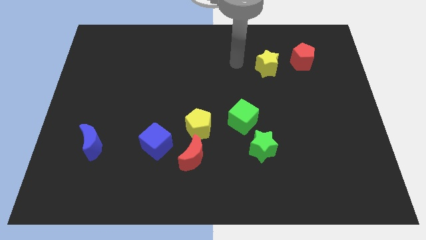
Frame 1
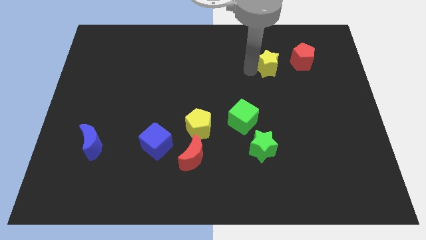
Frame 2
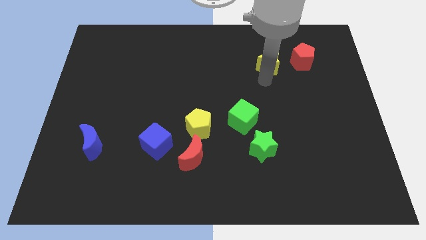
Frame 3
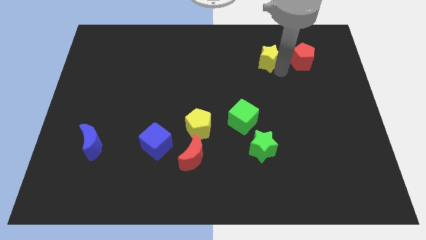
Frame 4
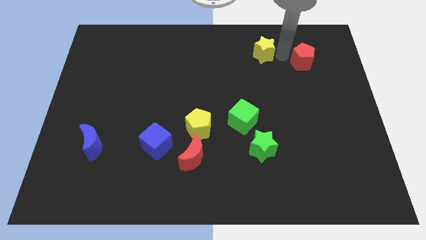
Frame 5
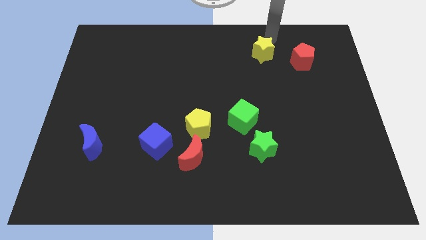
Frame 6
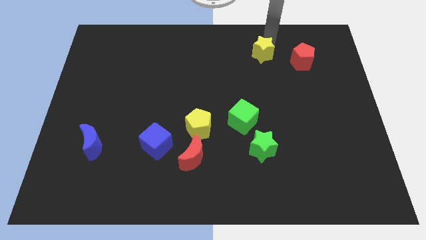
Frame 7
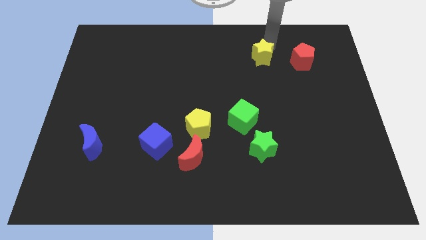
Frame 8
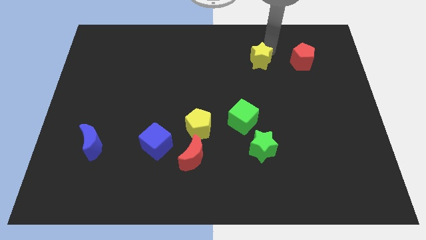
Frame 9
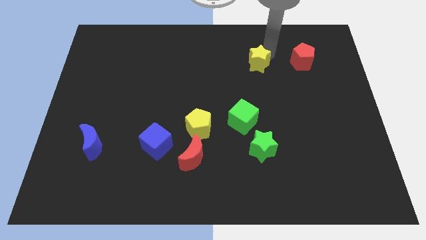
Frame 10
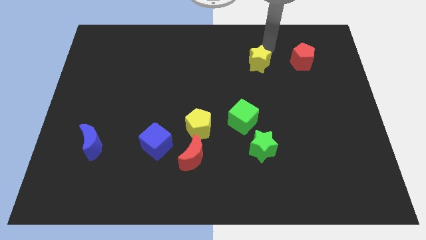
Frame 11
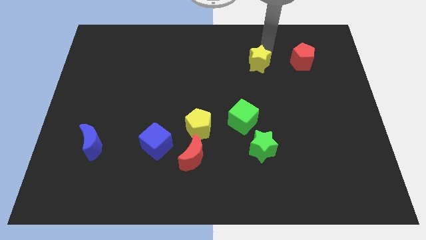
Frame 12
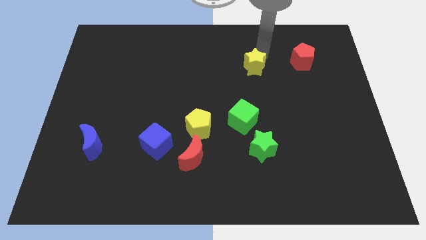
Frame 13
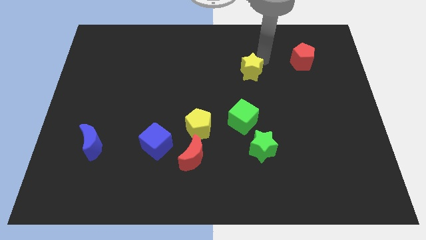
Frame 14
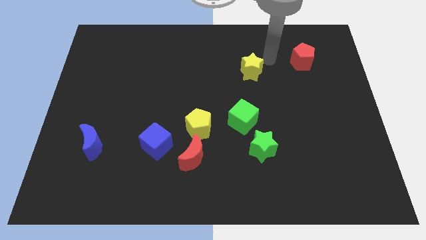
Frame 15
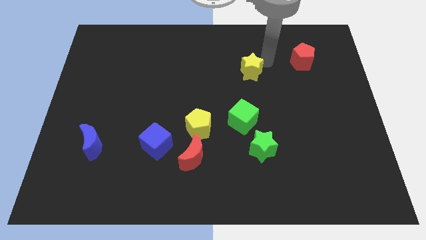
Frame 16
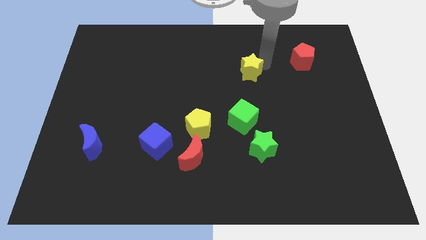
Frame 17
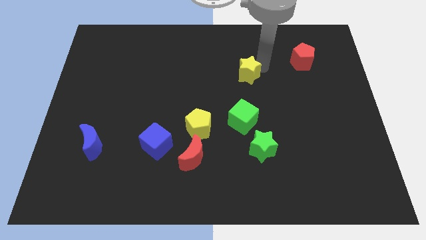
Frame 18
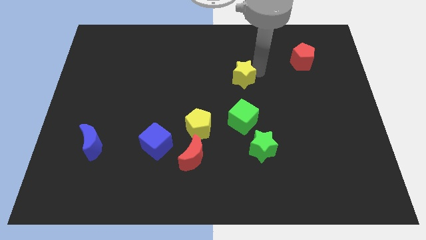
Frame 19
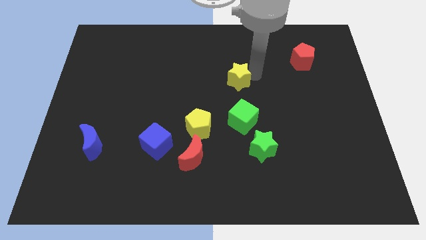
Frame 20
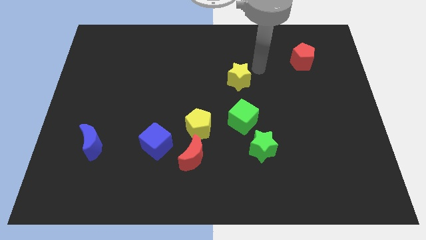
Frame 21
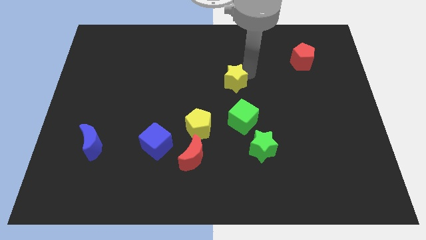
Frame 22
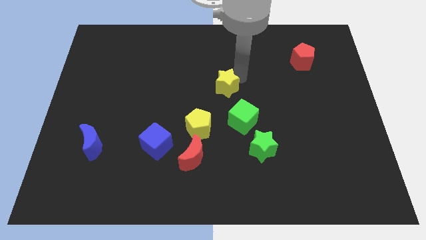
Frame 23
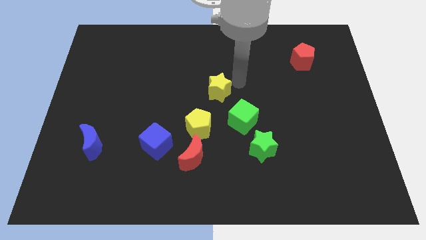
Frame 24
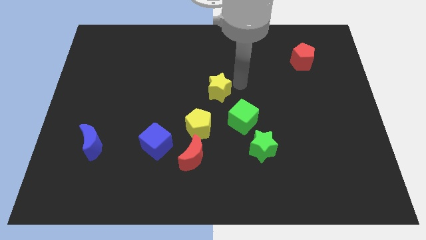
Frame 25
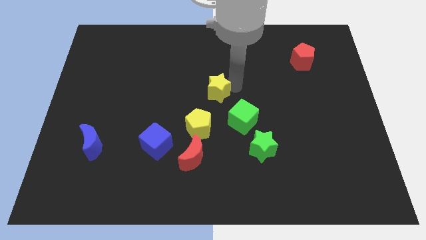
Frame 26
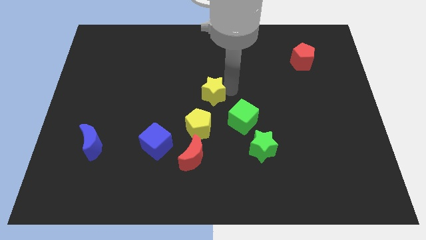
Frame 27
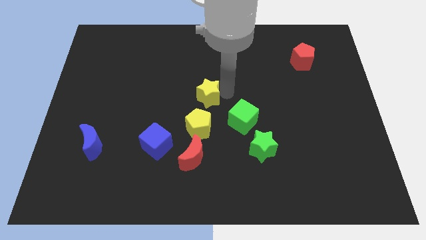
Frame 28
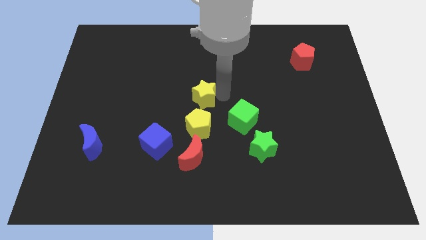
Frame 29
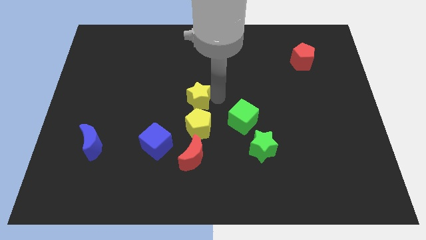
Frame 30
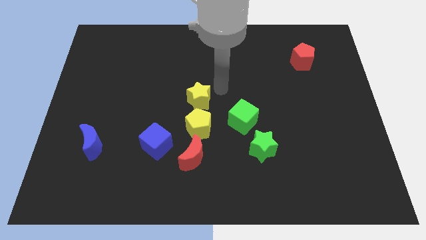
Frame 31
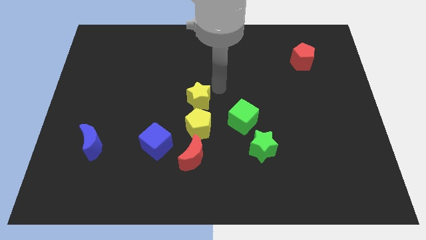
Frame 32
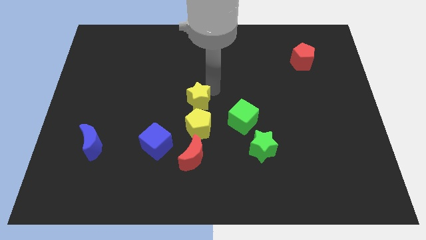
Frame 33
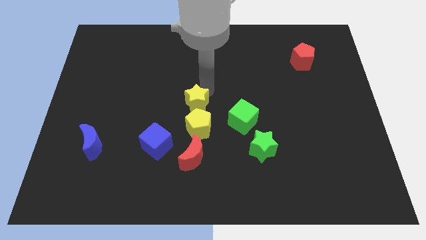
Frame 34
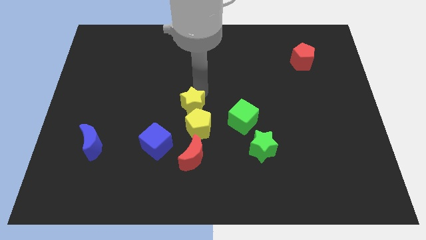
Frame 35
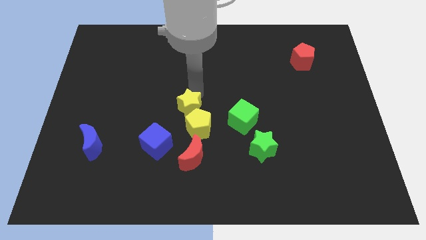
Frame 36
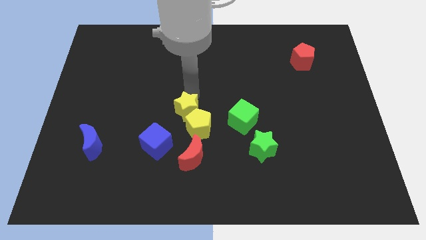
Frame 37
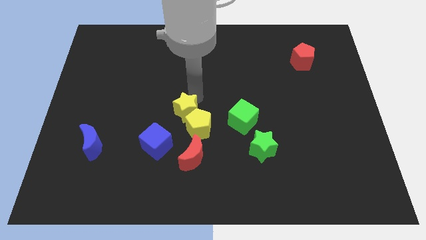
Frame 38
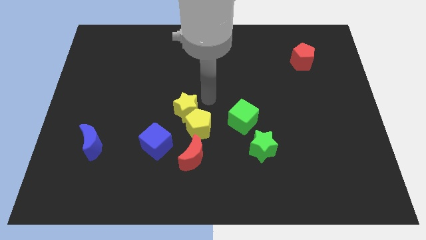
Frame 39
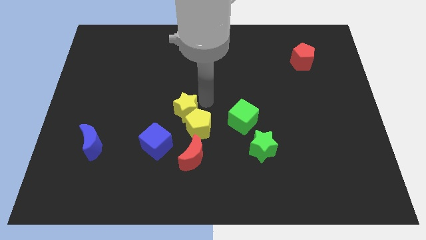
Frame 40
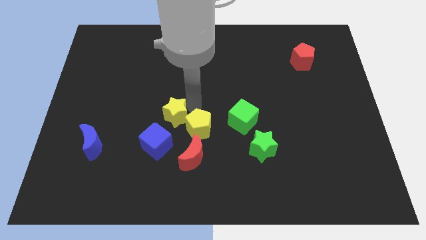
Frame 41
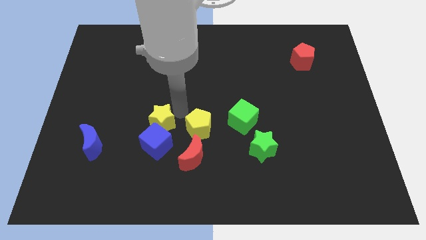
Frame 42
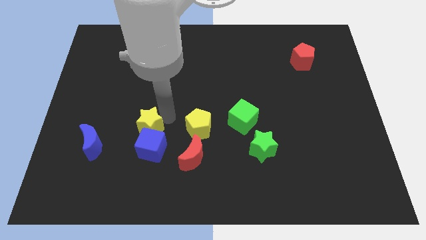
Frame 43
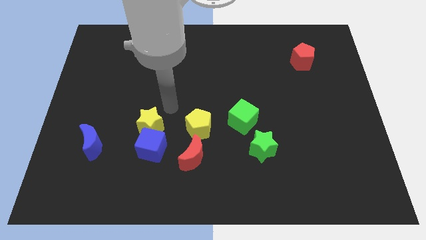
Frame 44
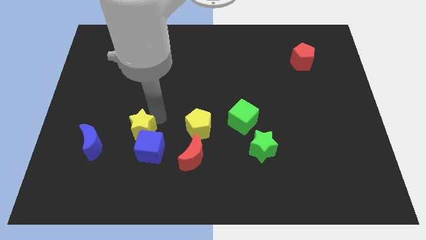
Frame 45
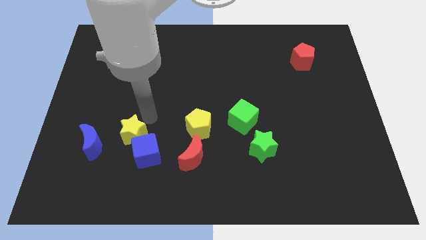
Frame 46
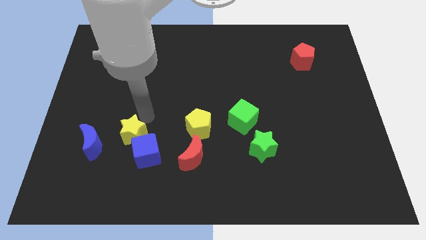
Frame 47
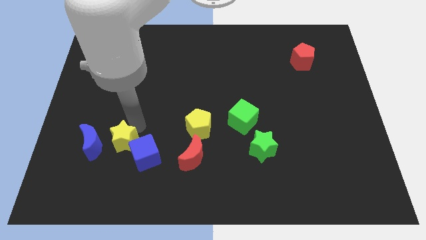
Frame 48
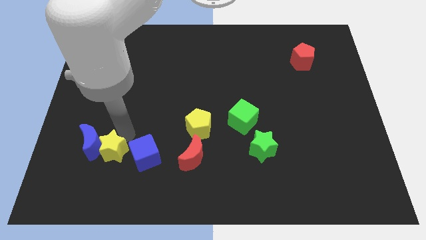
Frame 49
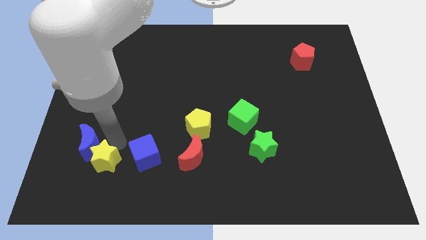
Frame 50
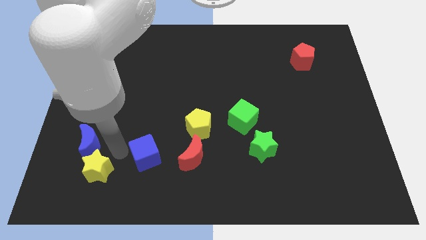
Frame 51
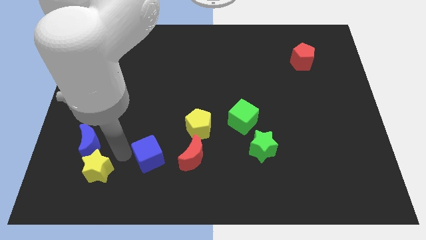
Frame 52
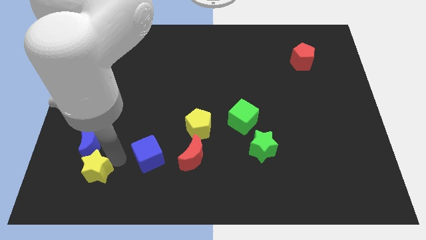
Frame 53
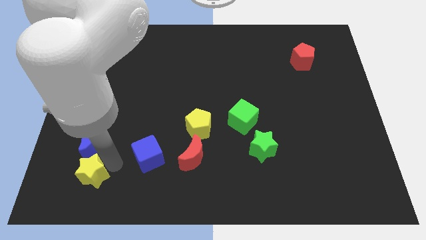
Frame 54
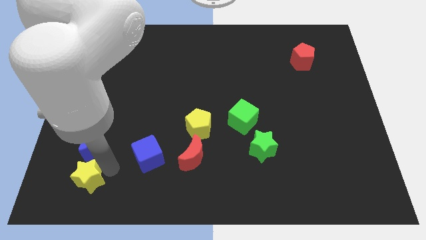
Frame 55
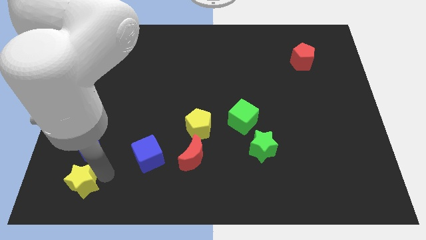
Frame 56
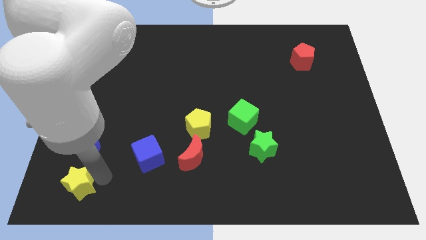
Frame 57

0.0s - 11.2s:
push the yellow star to the bottom left of the board
